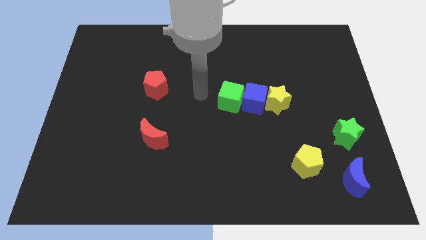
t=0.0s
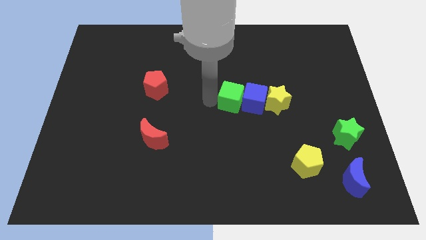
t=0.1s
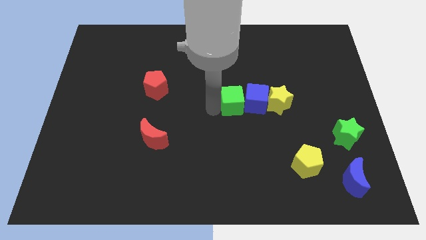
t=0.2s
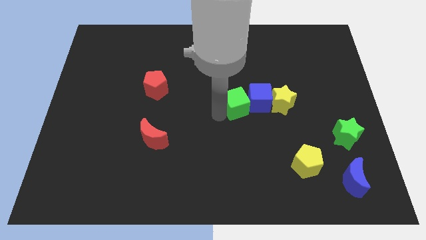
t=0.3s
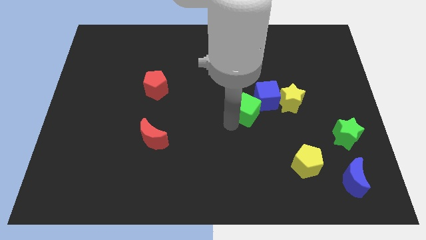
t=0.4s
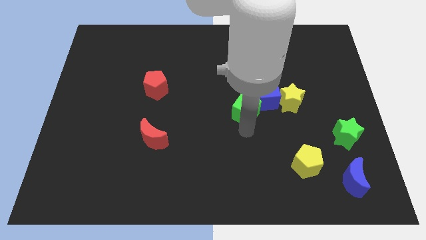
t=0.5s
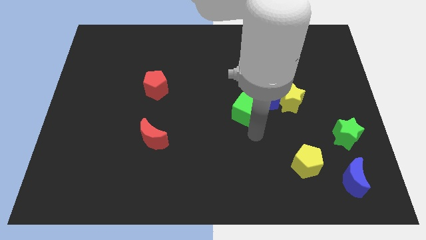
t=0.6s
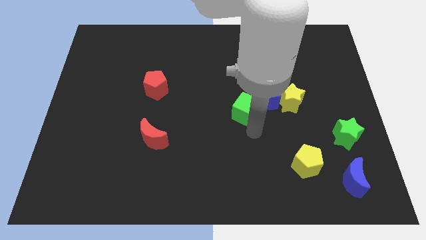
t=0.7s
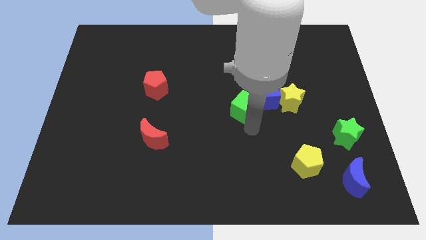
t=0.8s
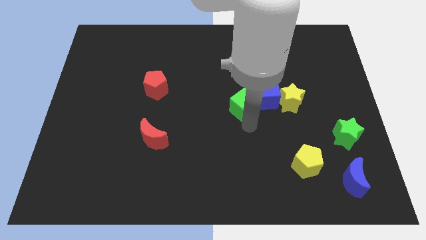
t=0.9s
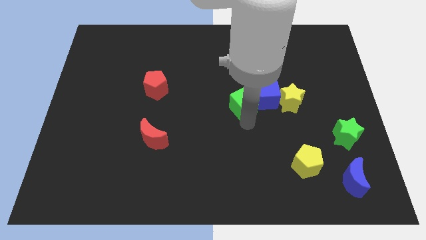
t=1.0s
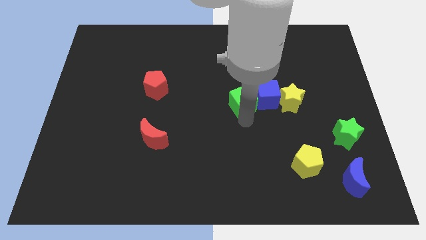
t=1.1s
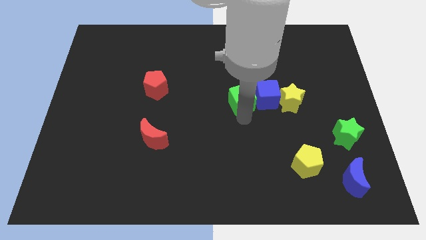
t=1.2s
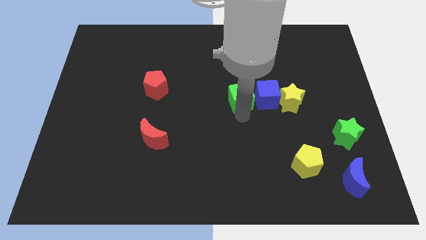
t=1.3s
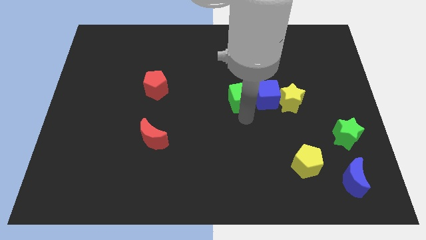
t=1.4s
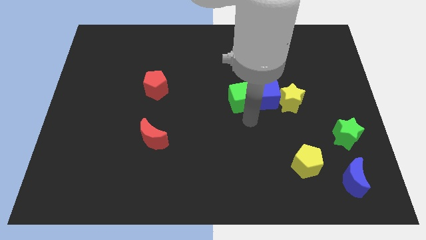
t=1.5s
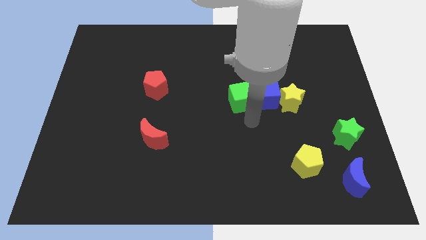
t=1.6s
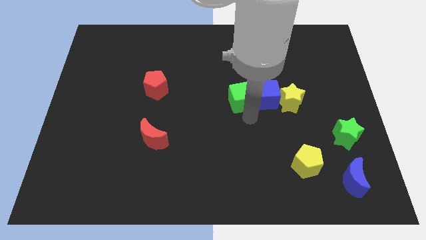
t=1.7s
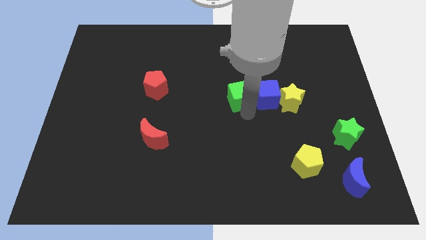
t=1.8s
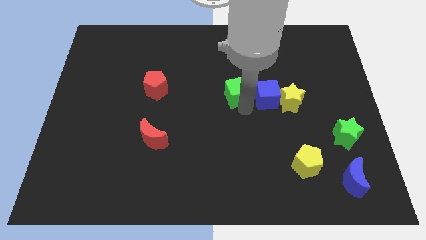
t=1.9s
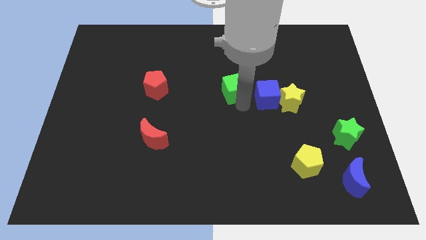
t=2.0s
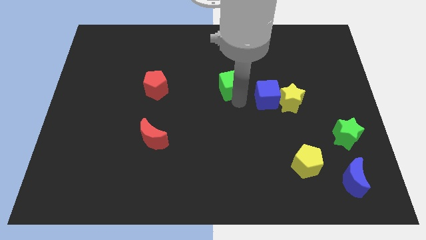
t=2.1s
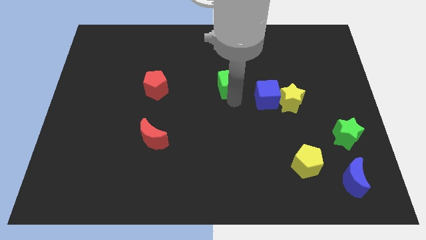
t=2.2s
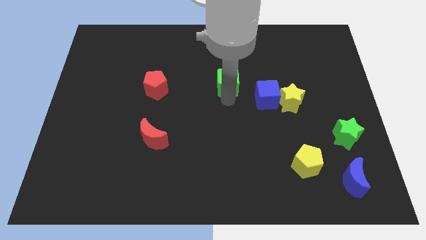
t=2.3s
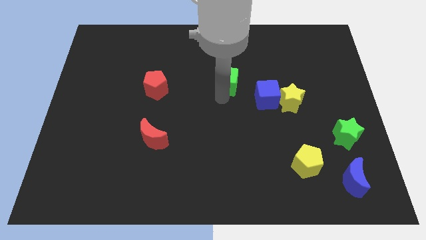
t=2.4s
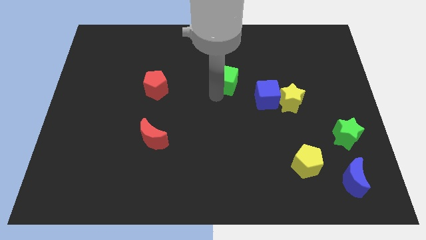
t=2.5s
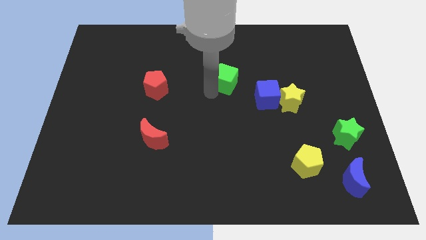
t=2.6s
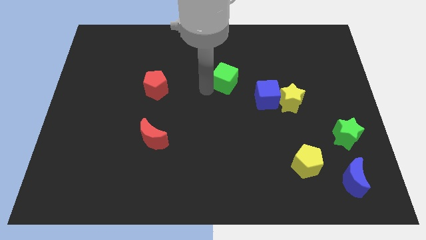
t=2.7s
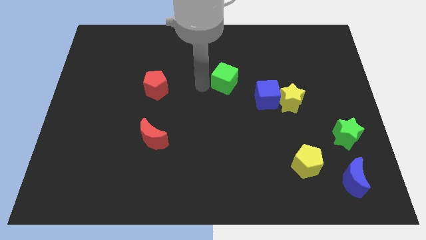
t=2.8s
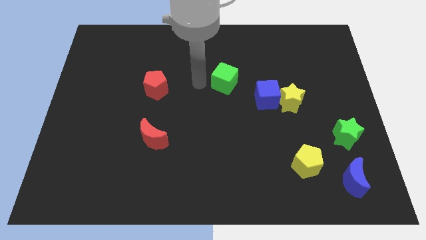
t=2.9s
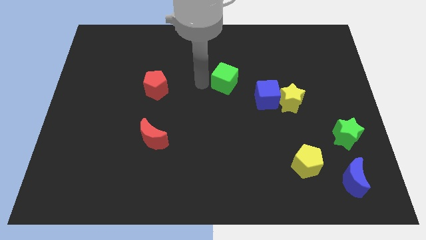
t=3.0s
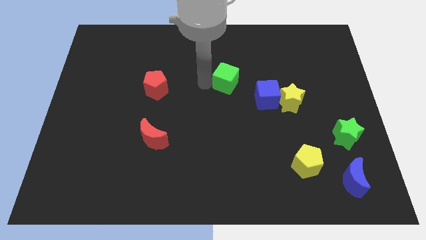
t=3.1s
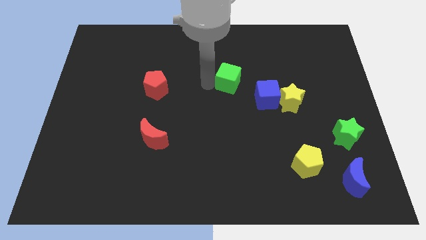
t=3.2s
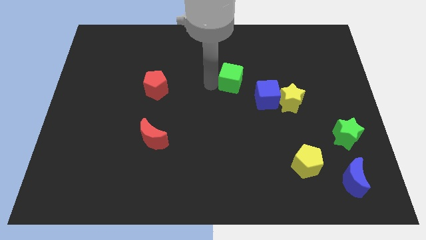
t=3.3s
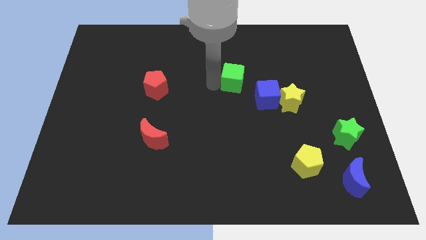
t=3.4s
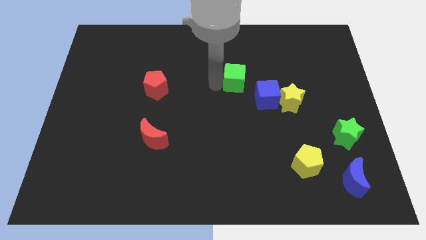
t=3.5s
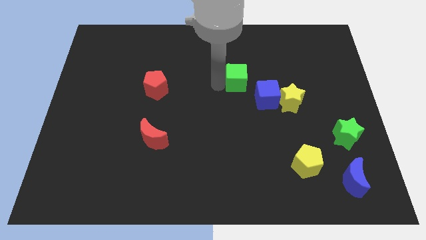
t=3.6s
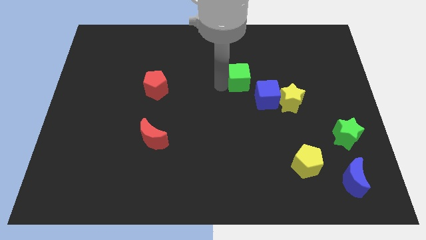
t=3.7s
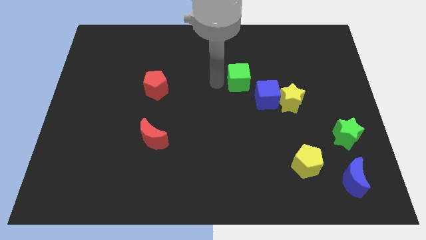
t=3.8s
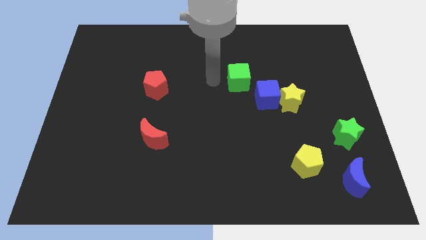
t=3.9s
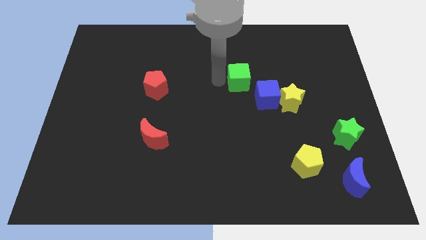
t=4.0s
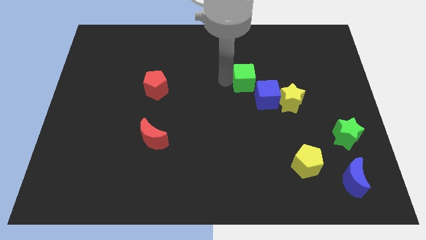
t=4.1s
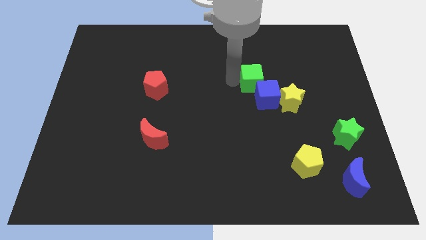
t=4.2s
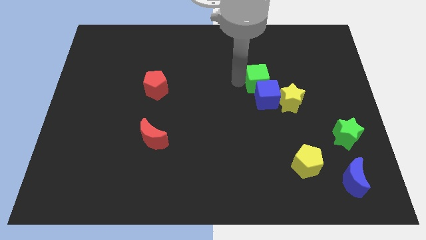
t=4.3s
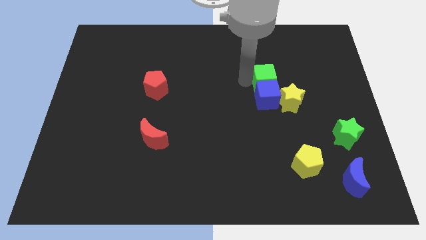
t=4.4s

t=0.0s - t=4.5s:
move the green cube right a little

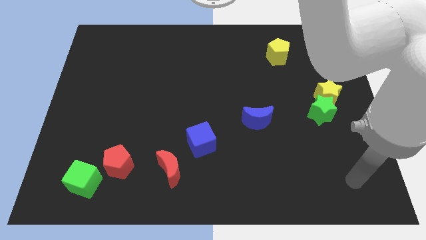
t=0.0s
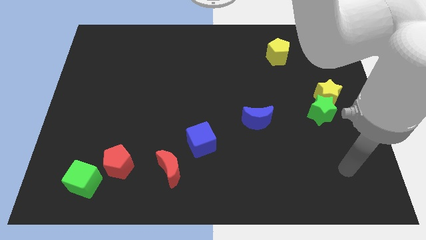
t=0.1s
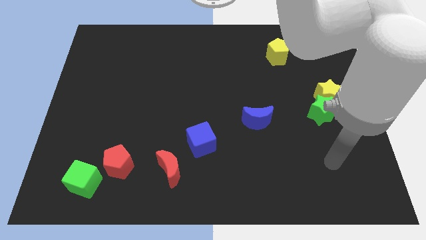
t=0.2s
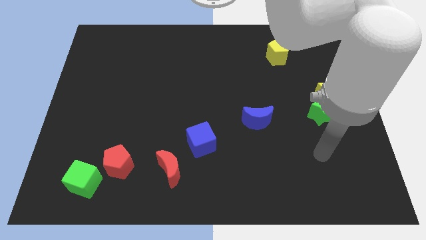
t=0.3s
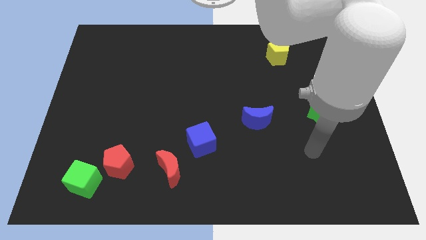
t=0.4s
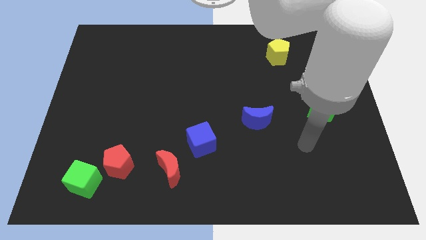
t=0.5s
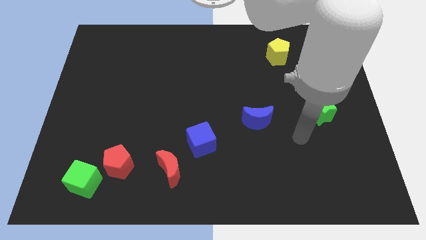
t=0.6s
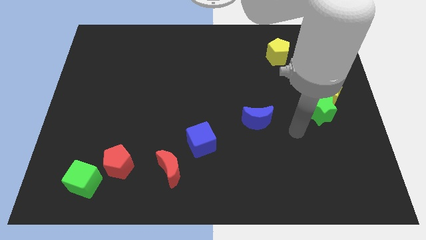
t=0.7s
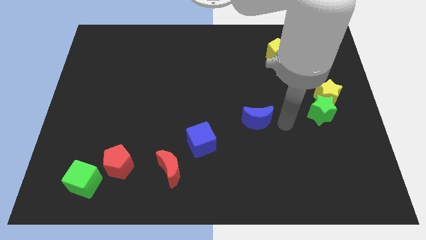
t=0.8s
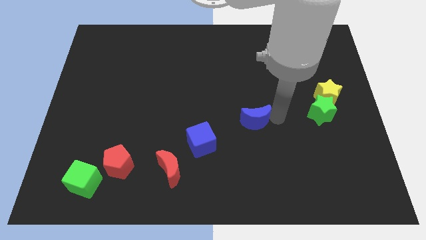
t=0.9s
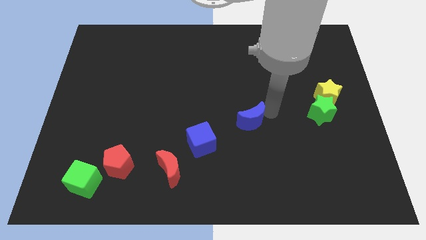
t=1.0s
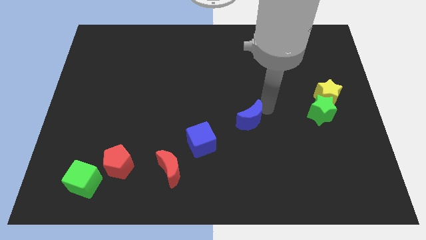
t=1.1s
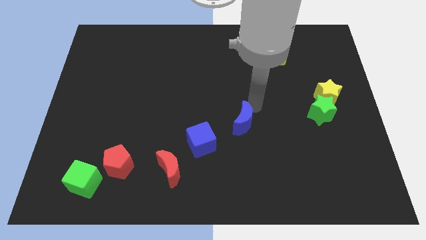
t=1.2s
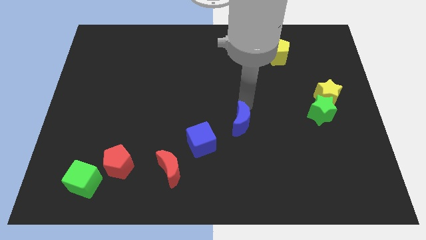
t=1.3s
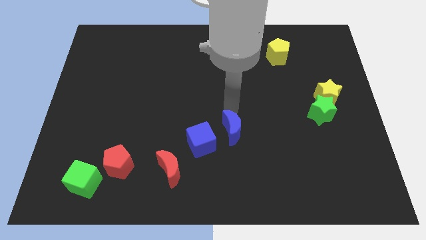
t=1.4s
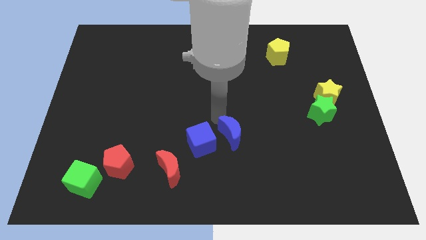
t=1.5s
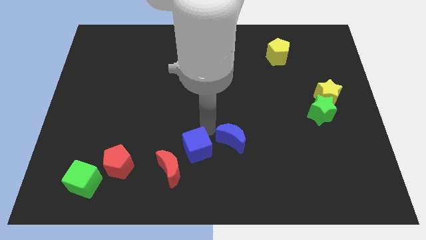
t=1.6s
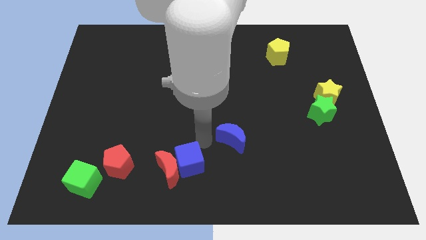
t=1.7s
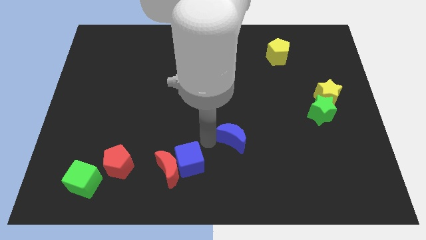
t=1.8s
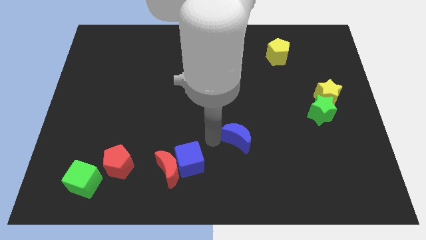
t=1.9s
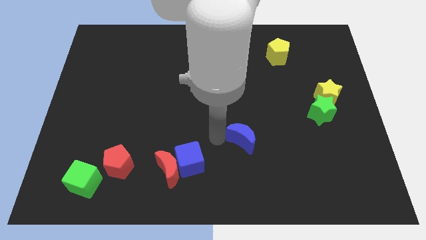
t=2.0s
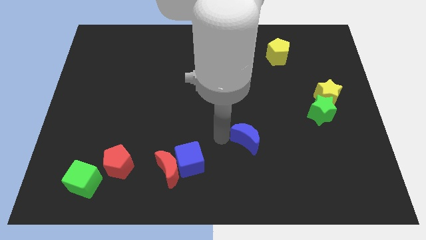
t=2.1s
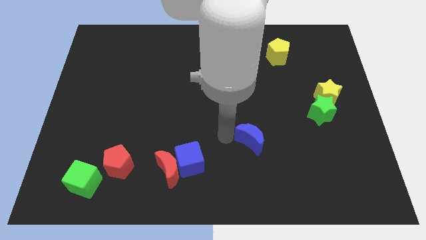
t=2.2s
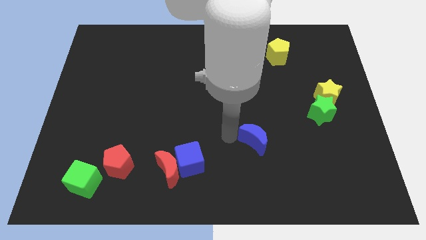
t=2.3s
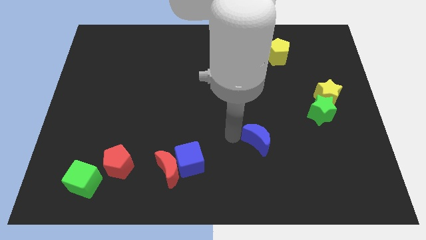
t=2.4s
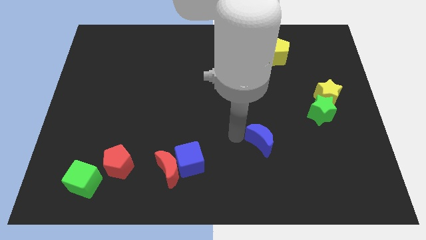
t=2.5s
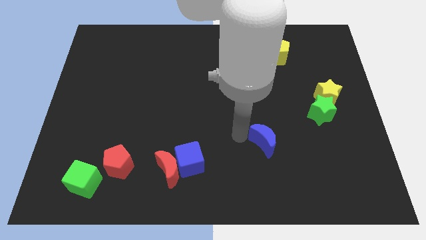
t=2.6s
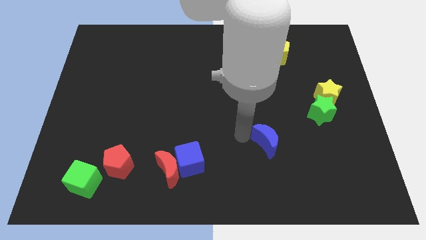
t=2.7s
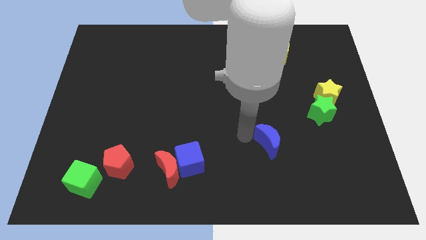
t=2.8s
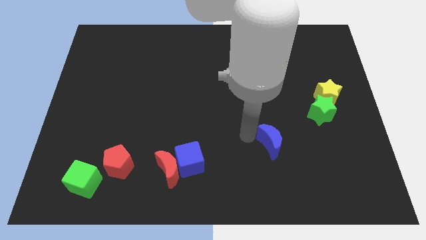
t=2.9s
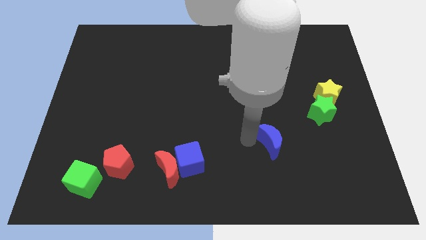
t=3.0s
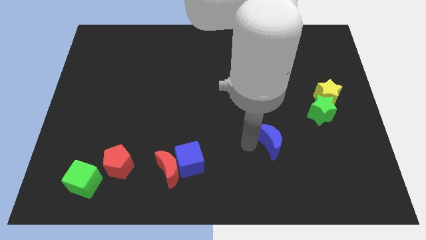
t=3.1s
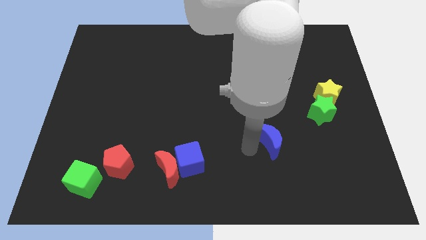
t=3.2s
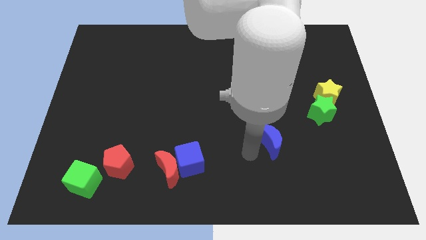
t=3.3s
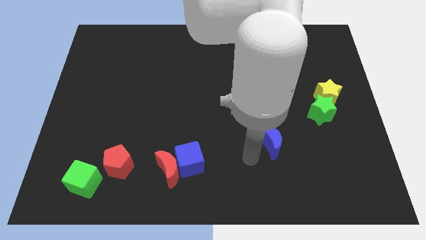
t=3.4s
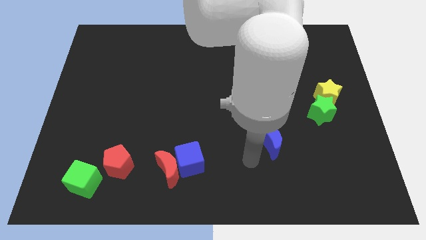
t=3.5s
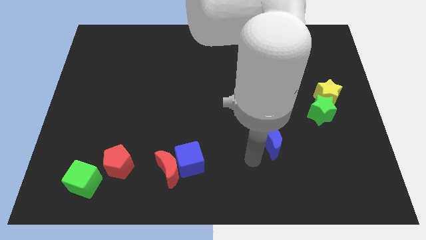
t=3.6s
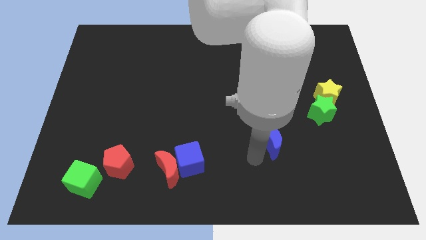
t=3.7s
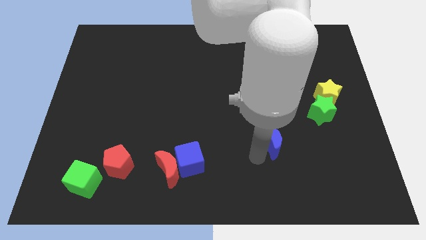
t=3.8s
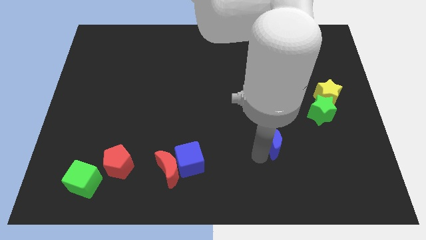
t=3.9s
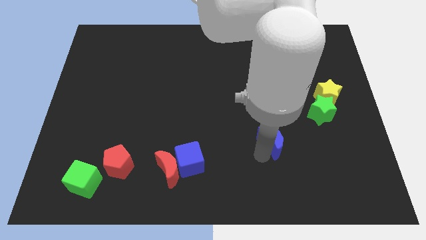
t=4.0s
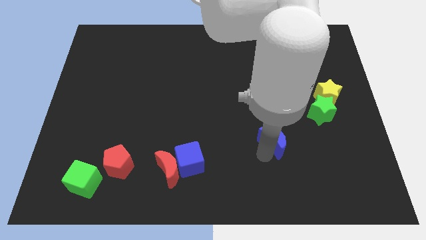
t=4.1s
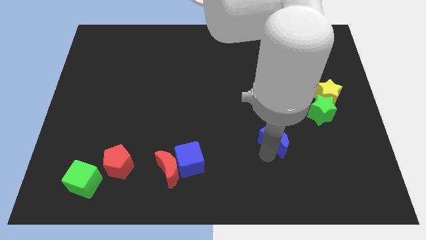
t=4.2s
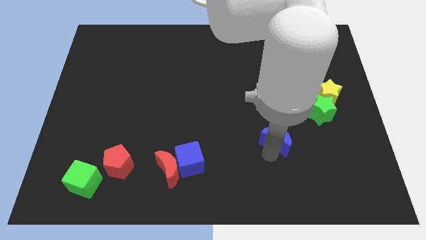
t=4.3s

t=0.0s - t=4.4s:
push the blue moon downwards and to the right a bit
